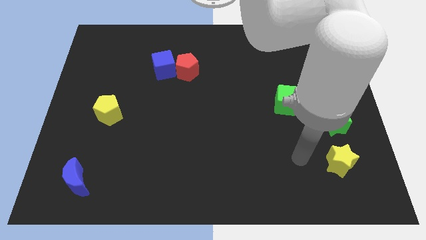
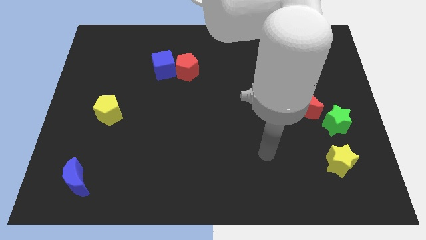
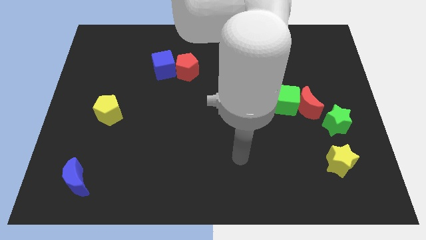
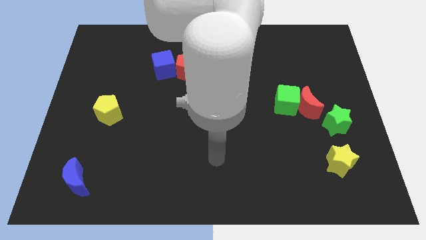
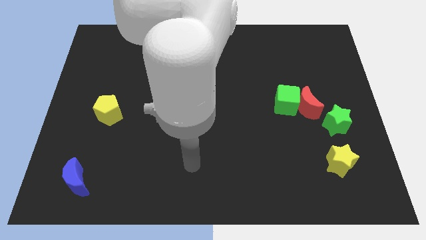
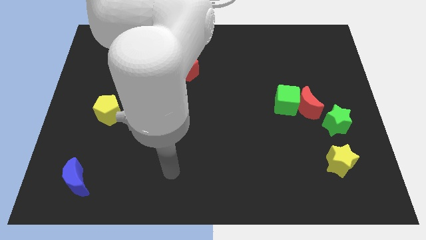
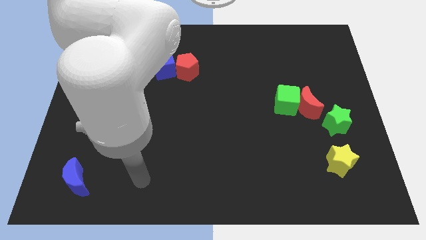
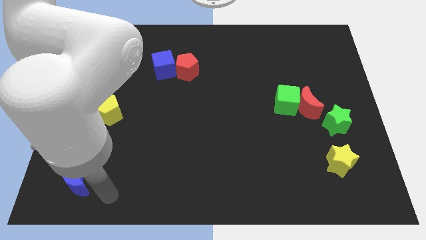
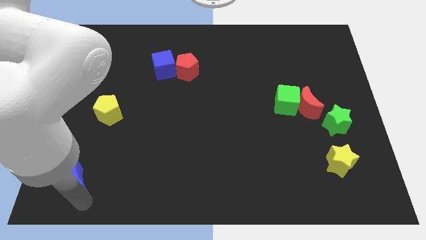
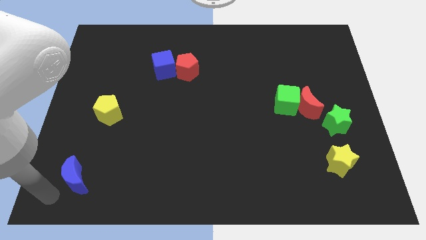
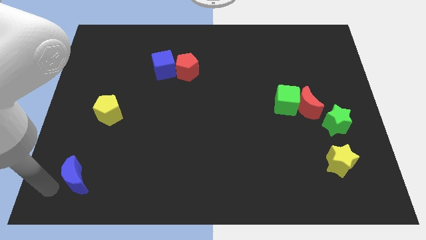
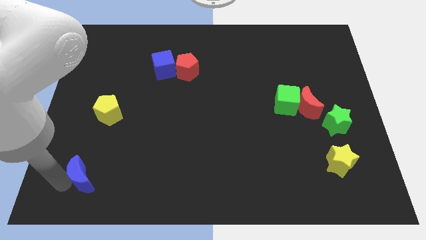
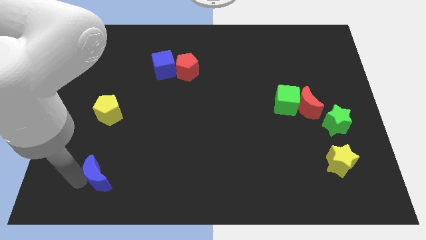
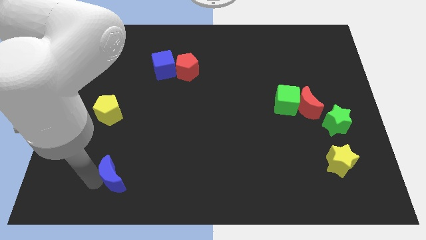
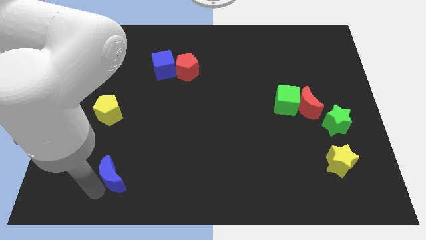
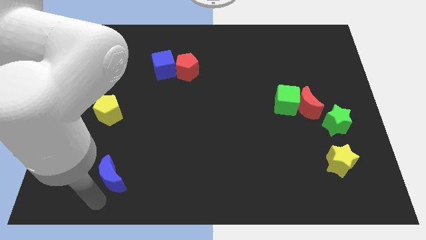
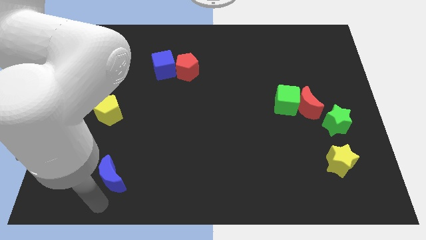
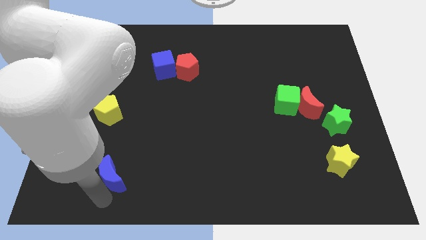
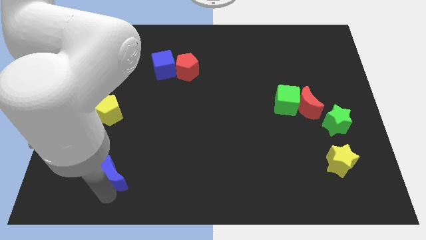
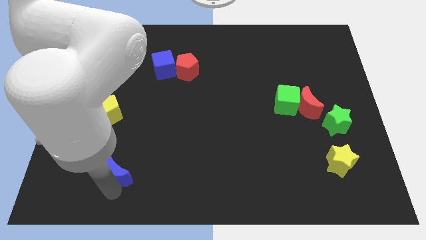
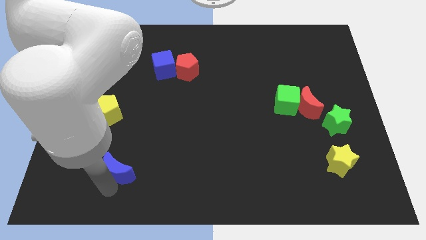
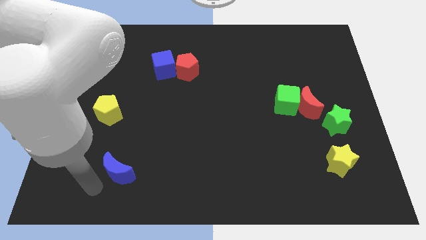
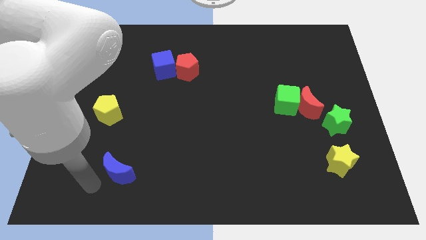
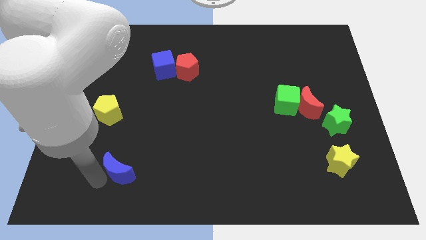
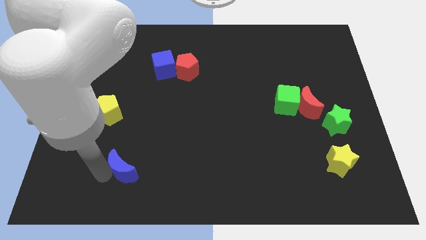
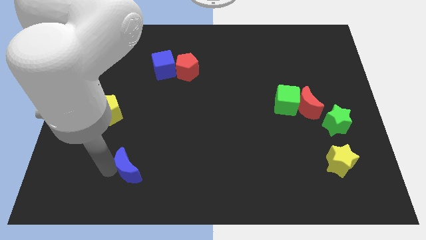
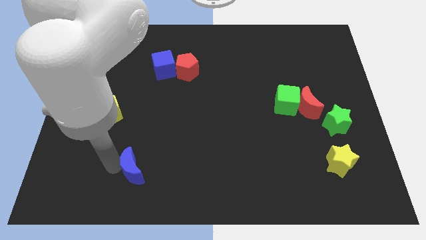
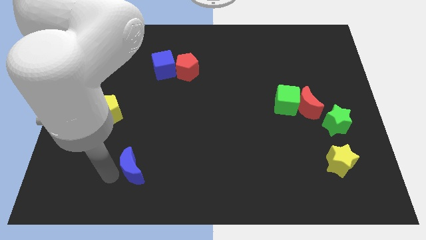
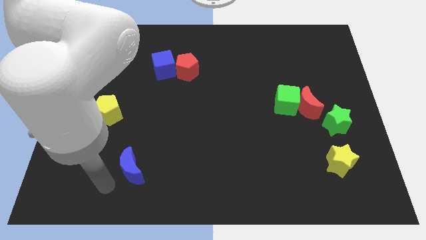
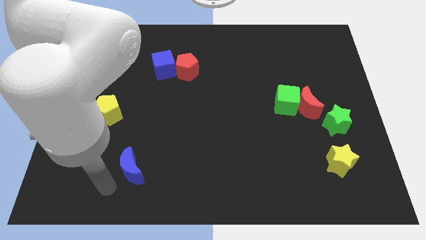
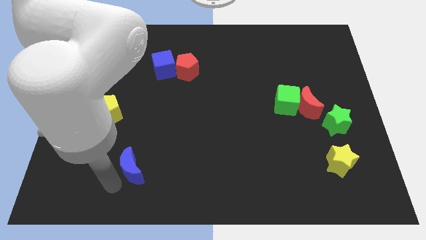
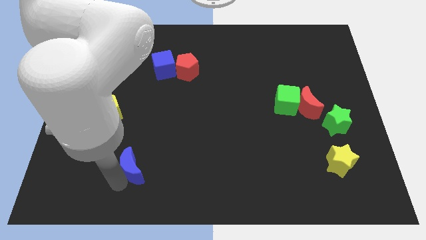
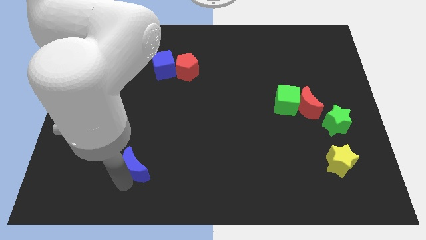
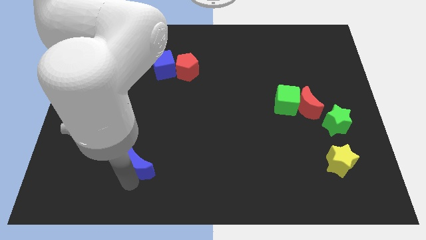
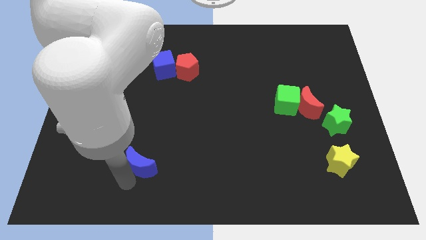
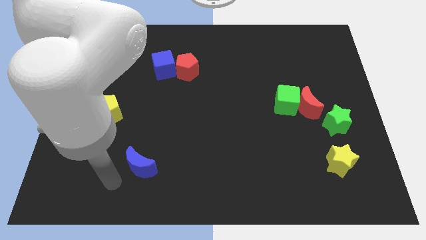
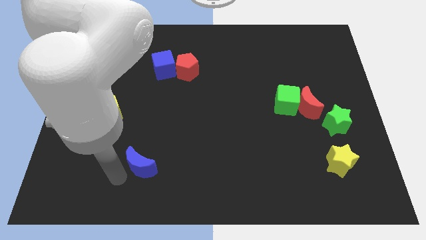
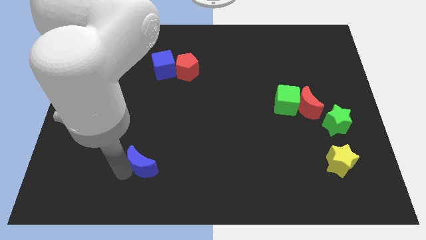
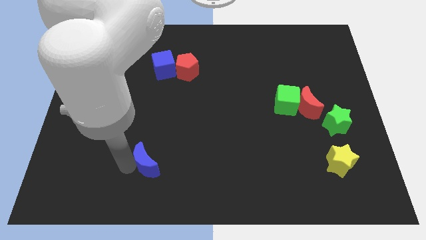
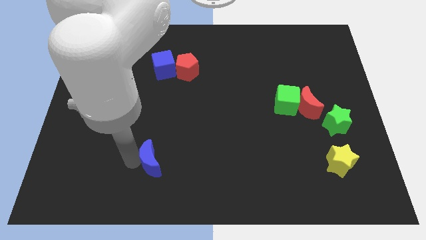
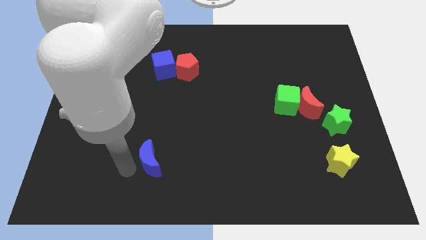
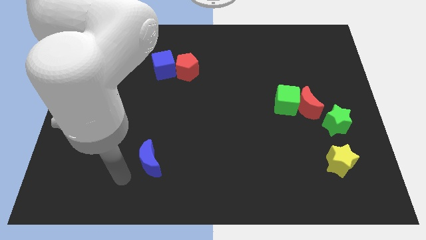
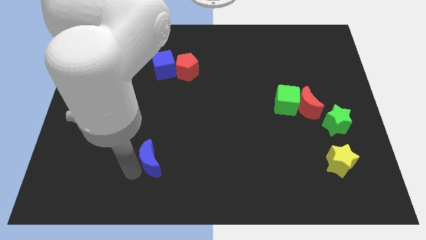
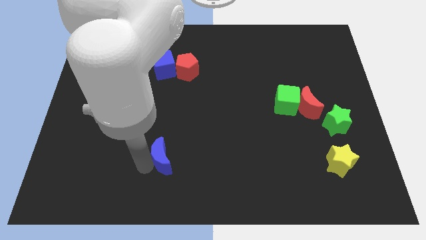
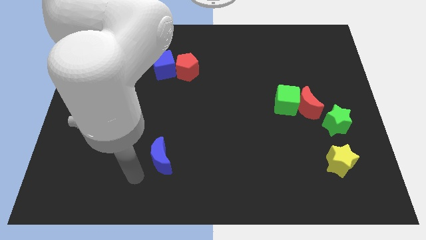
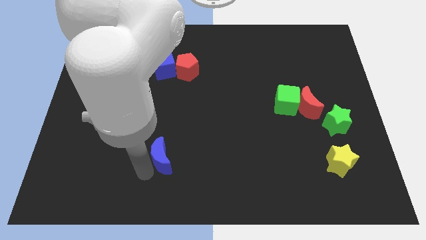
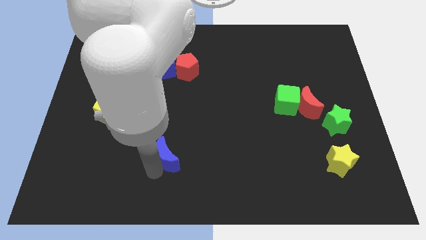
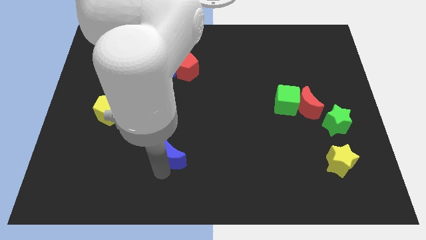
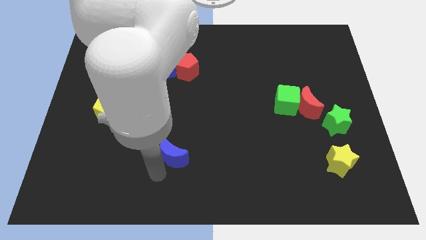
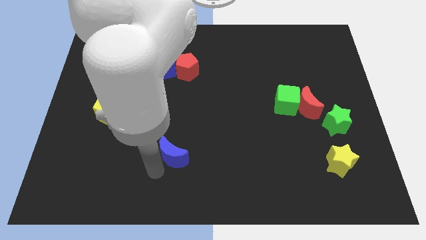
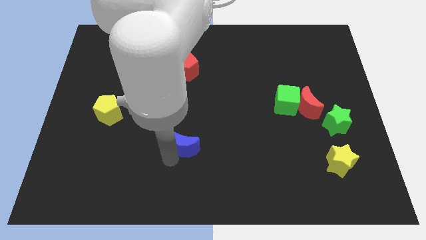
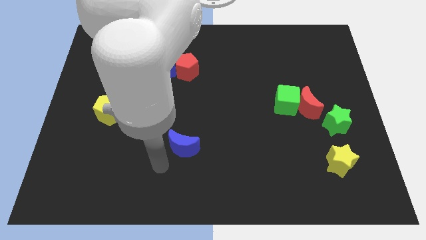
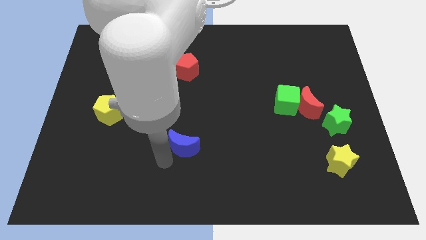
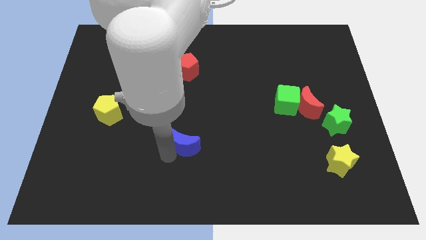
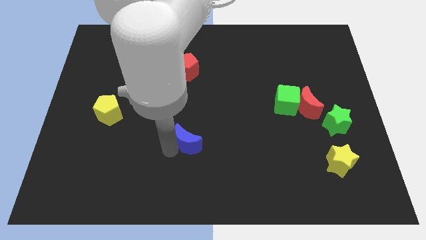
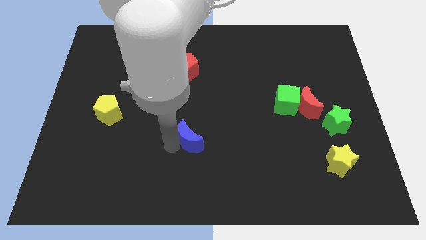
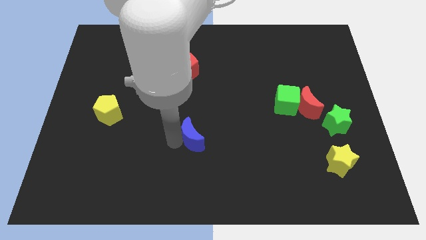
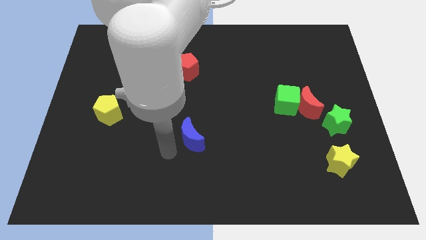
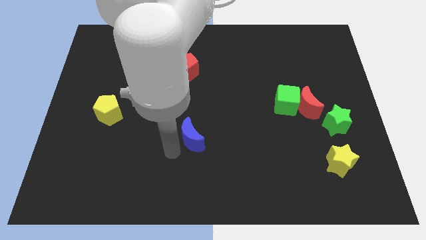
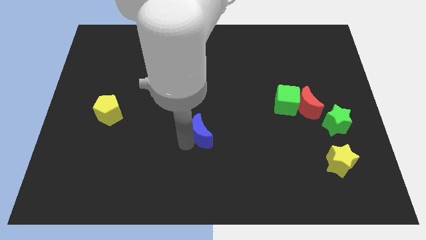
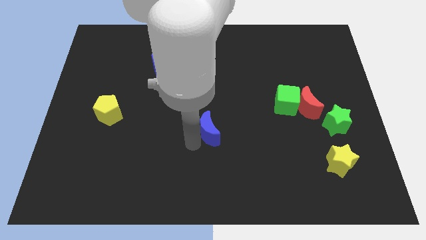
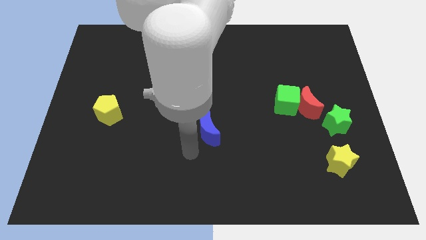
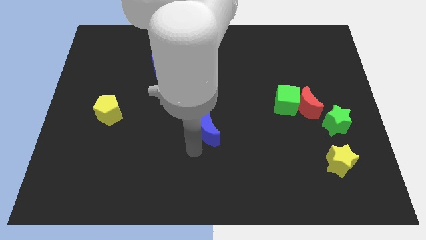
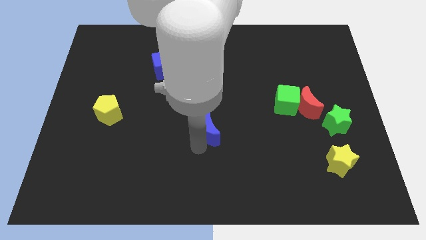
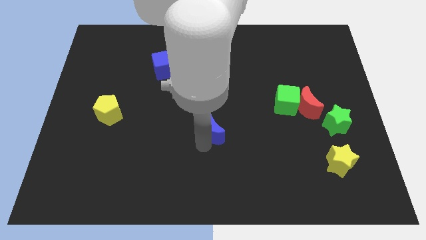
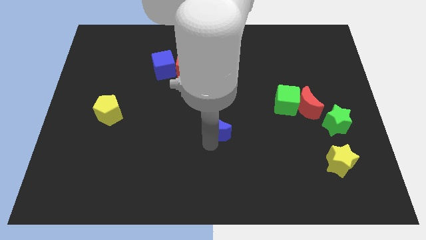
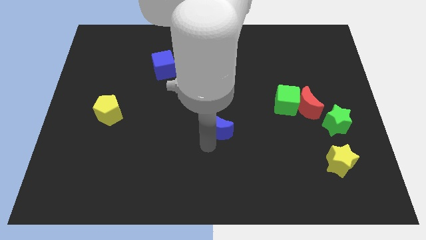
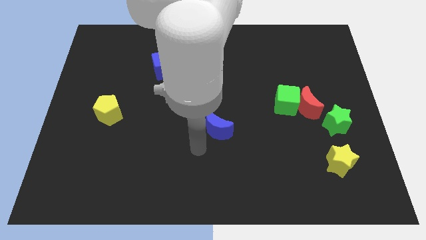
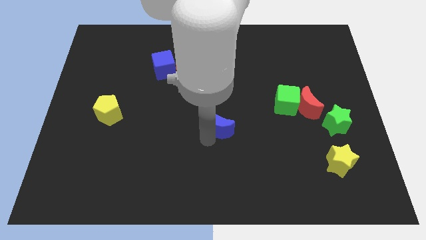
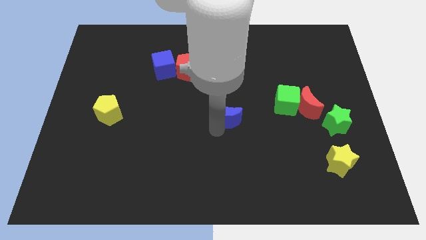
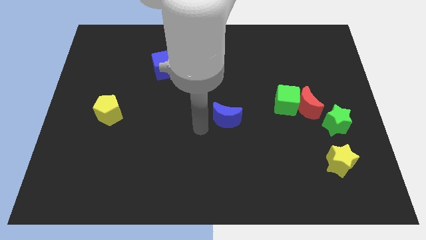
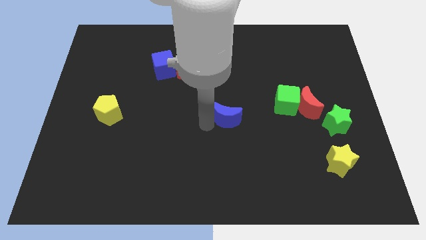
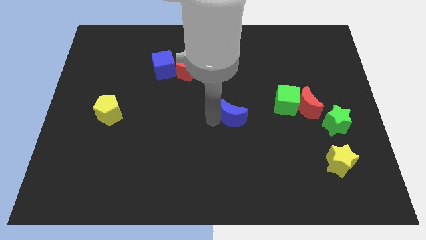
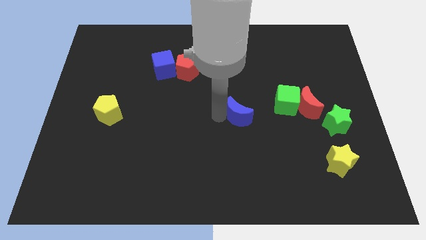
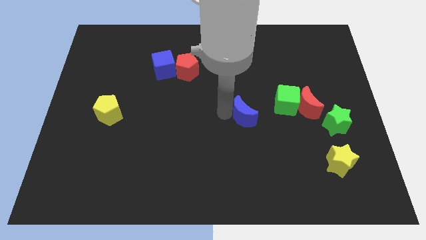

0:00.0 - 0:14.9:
push the blue moon to the left side of the red moon

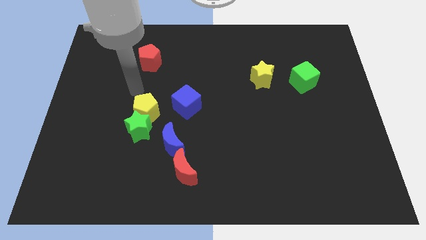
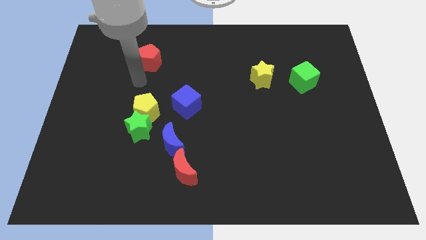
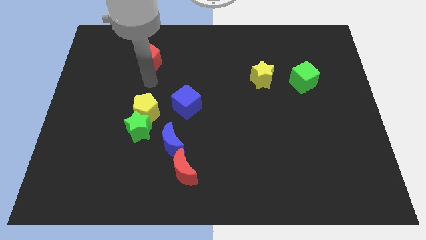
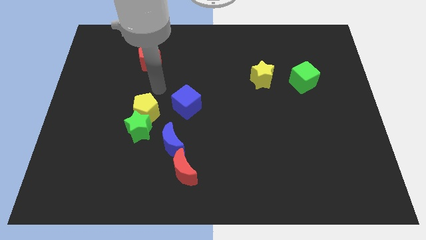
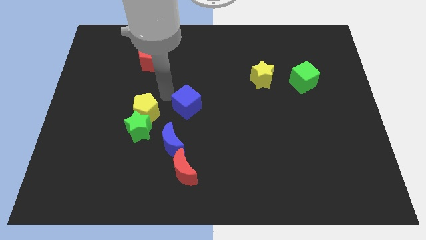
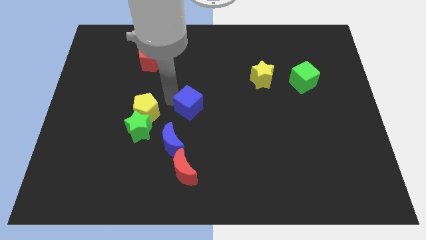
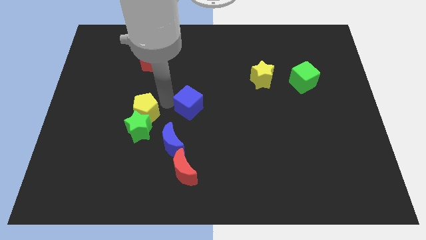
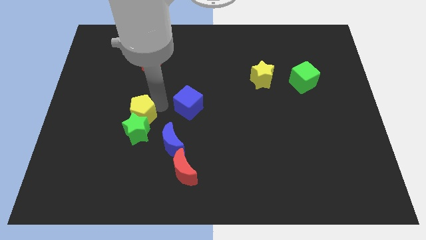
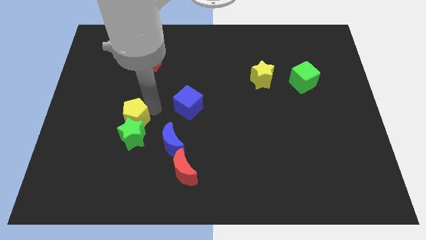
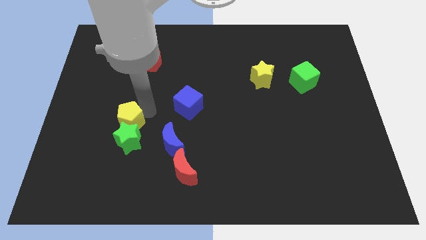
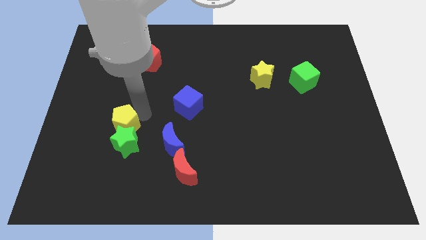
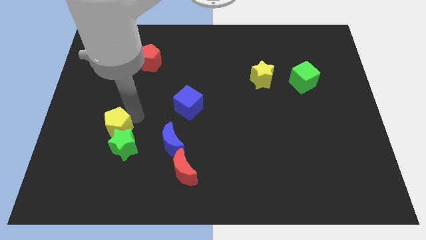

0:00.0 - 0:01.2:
push the yellow pentagon to the left side of the blue moon
